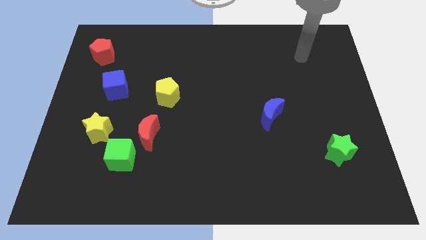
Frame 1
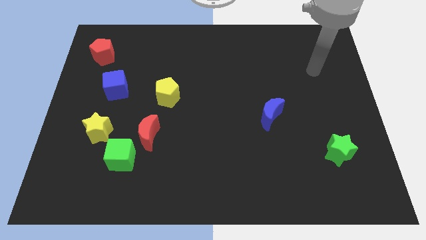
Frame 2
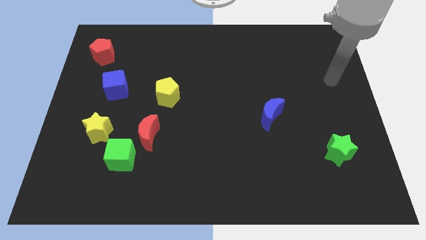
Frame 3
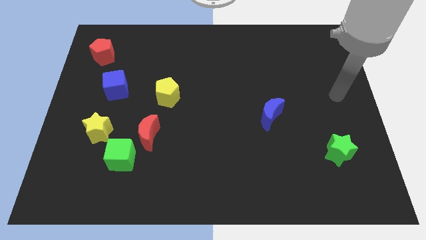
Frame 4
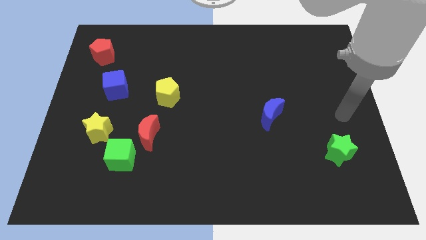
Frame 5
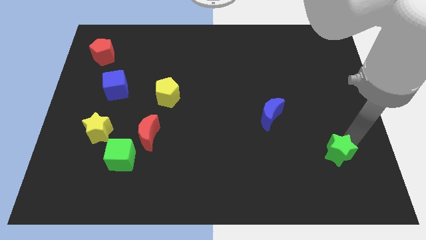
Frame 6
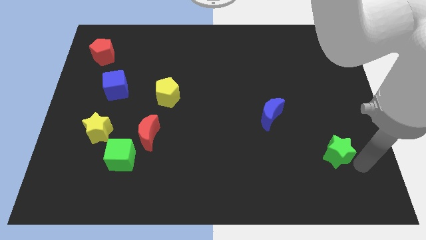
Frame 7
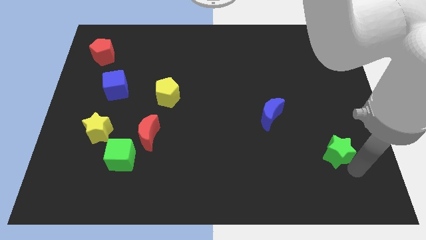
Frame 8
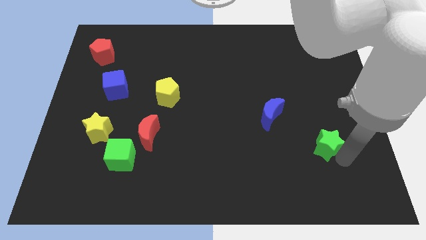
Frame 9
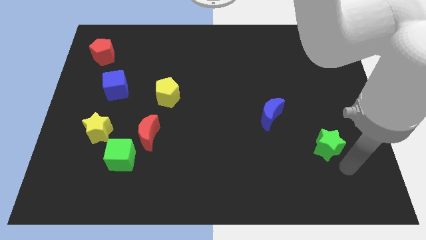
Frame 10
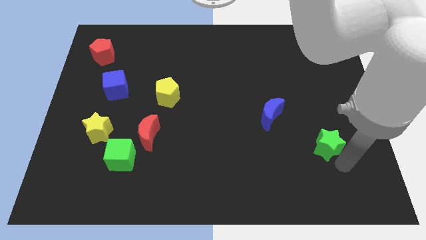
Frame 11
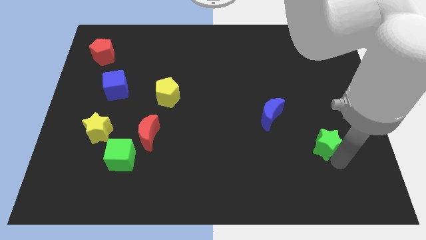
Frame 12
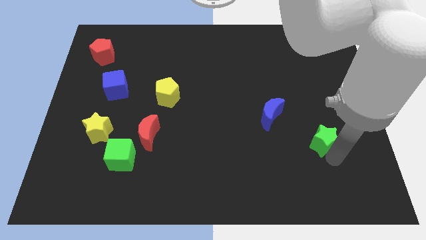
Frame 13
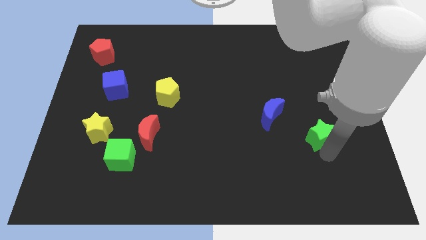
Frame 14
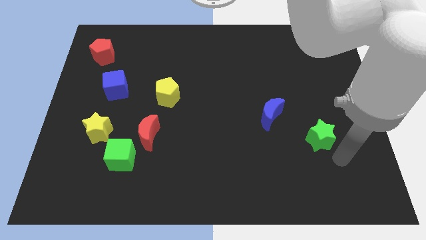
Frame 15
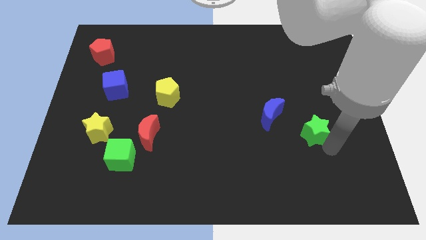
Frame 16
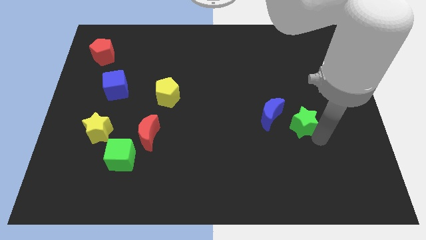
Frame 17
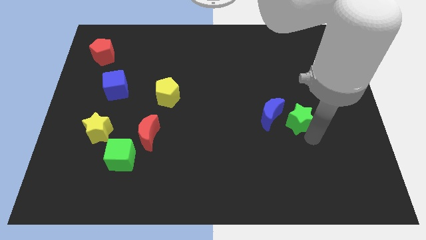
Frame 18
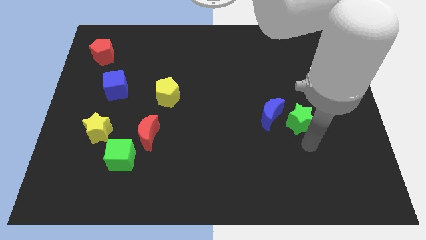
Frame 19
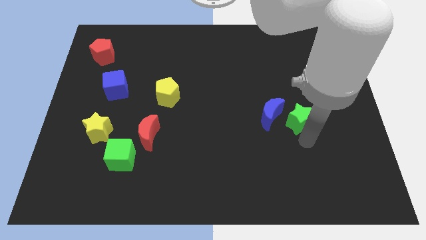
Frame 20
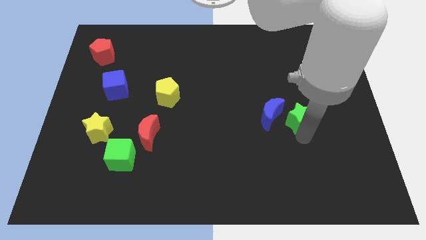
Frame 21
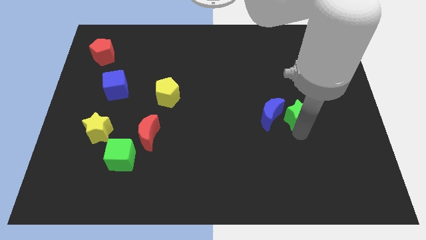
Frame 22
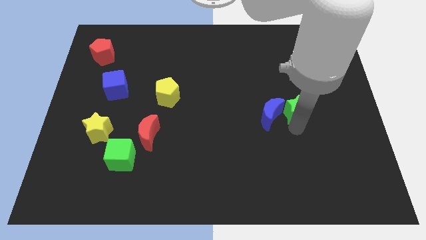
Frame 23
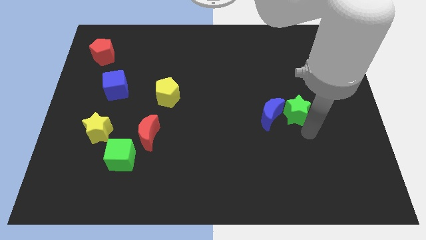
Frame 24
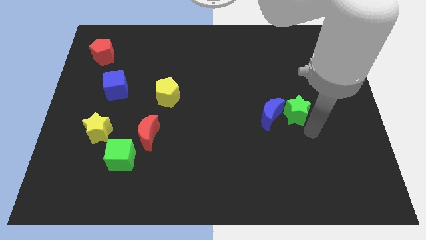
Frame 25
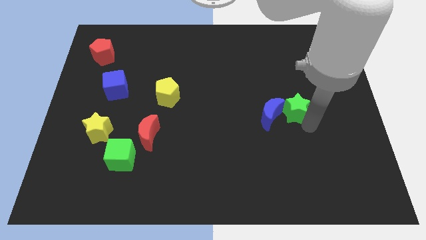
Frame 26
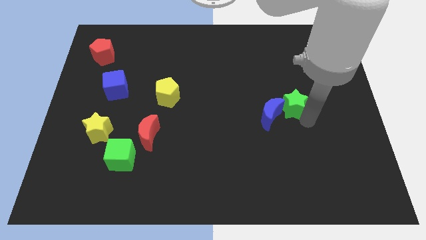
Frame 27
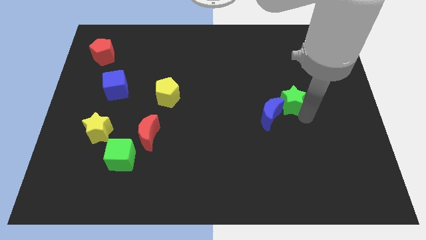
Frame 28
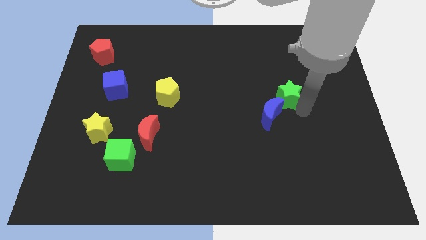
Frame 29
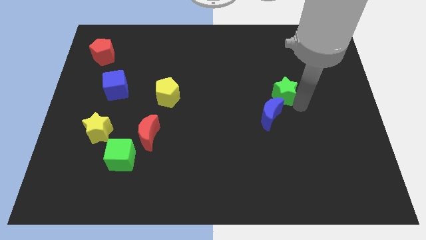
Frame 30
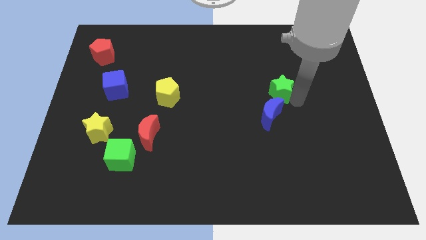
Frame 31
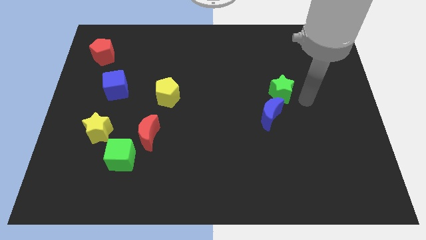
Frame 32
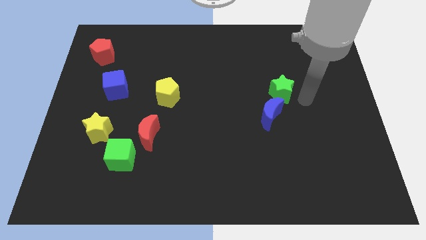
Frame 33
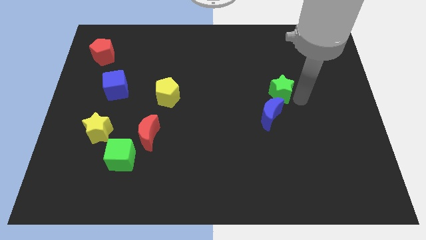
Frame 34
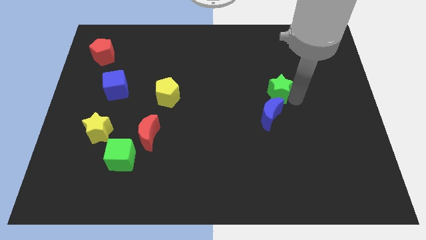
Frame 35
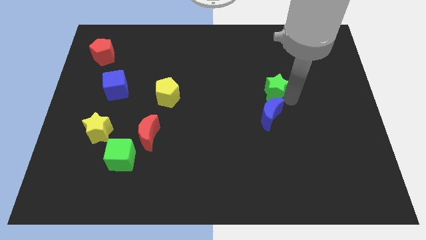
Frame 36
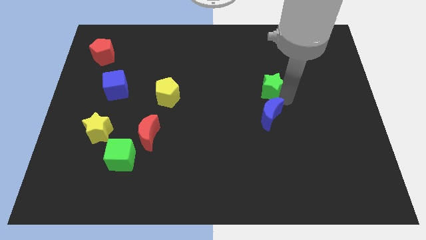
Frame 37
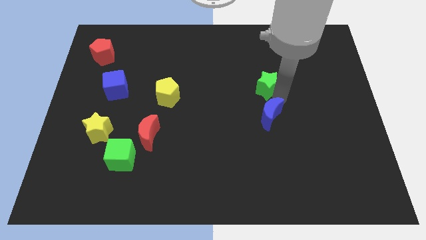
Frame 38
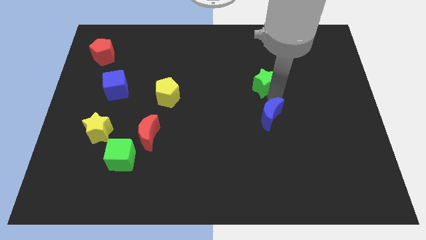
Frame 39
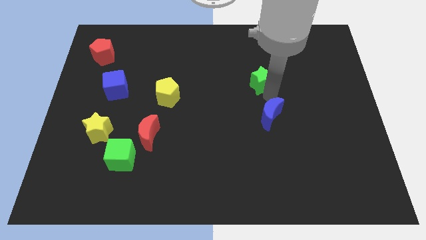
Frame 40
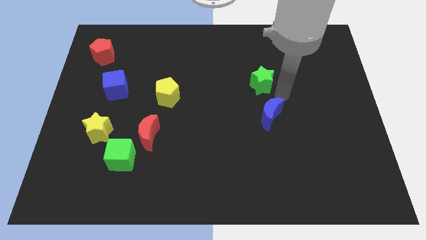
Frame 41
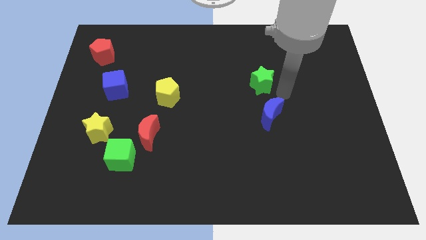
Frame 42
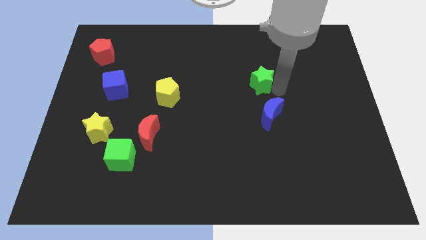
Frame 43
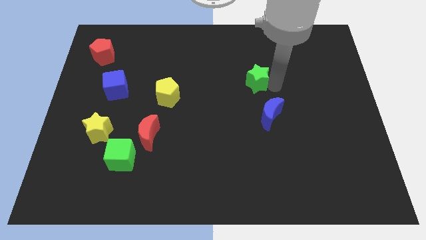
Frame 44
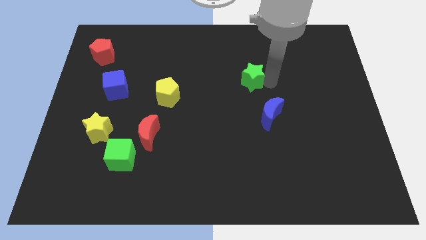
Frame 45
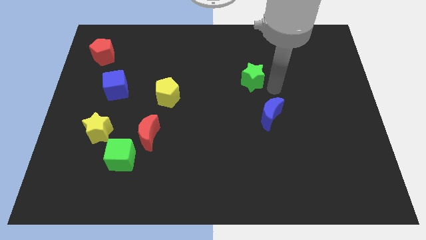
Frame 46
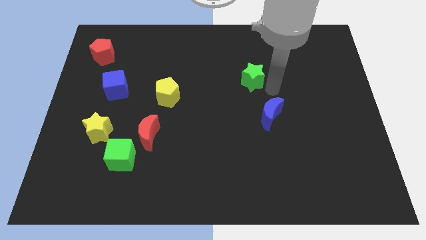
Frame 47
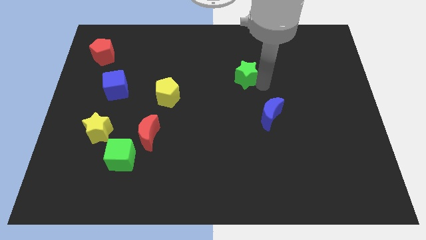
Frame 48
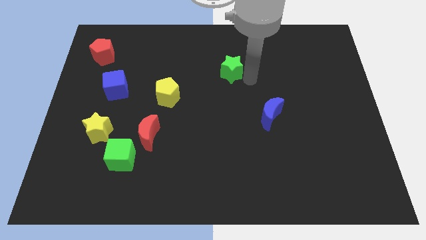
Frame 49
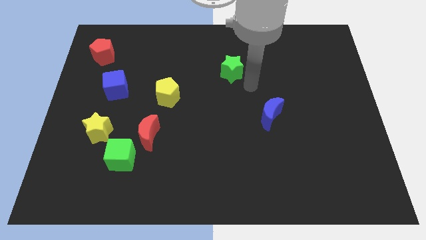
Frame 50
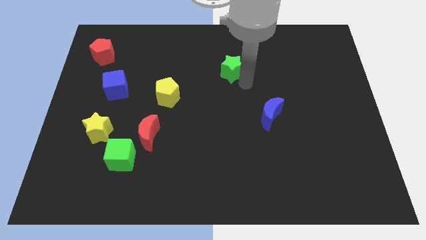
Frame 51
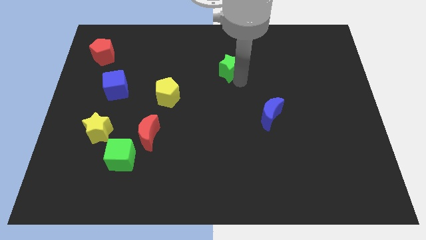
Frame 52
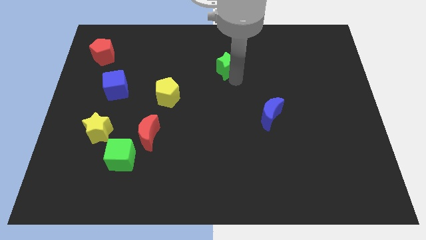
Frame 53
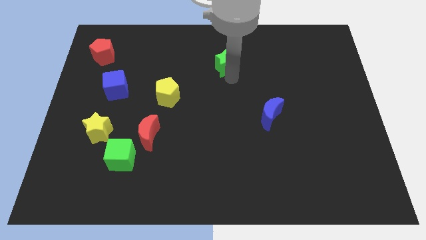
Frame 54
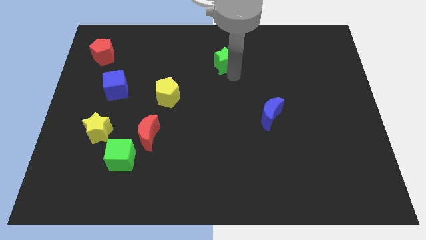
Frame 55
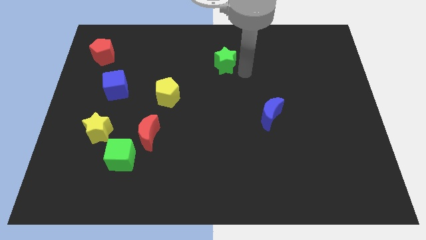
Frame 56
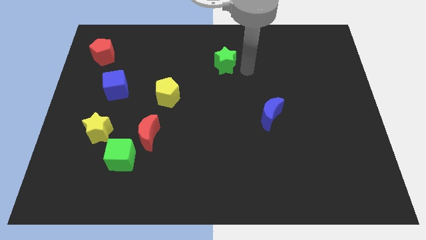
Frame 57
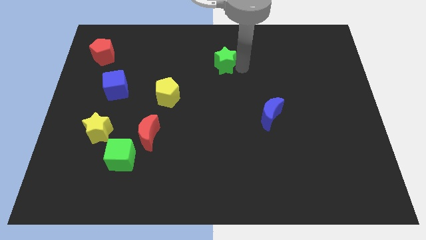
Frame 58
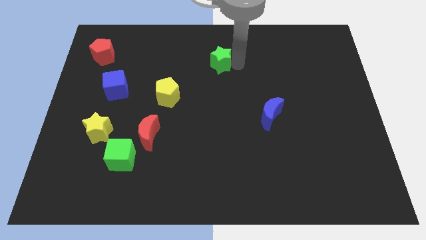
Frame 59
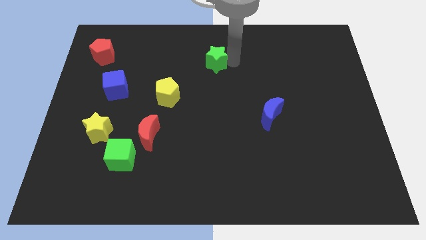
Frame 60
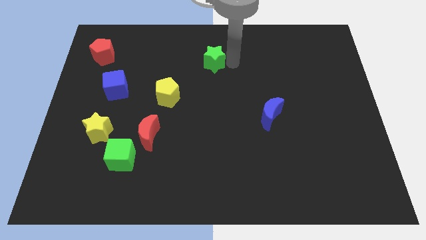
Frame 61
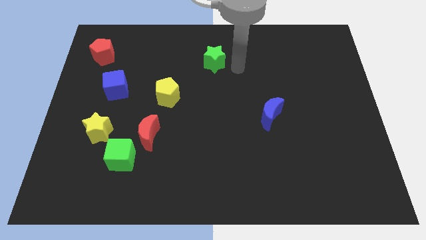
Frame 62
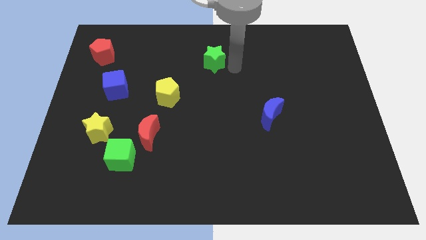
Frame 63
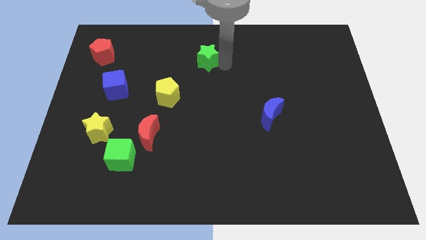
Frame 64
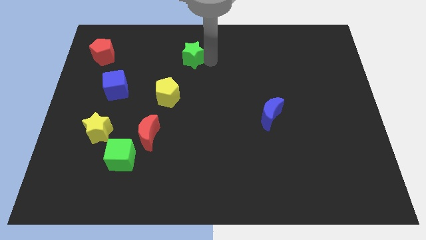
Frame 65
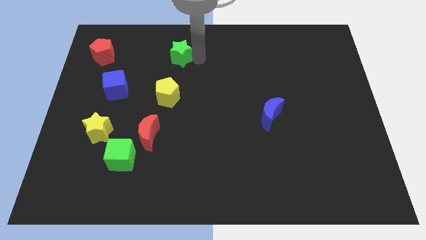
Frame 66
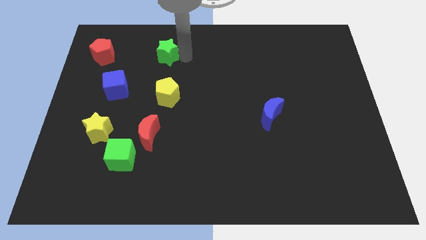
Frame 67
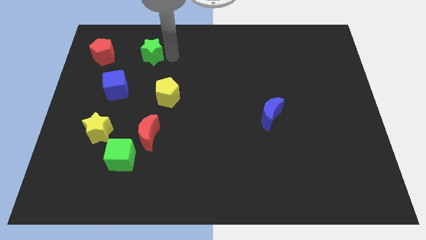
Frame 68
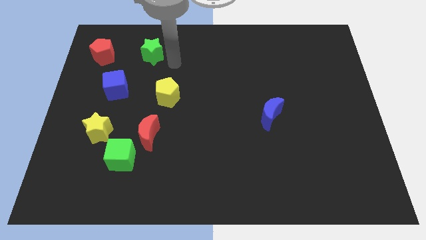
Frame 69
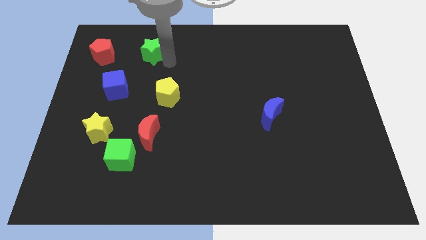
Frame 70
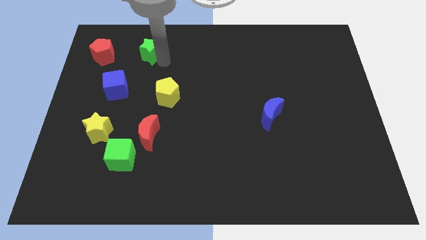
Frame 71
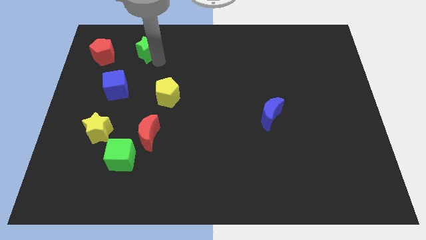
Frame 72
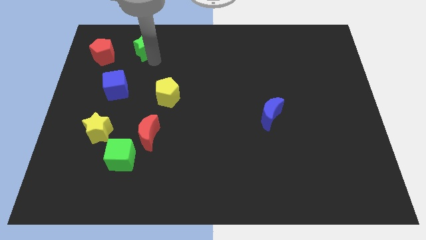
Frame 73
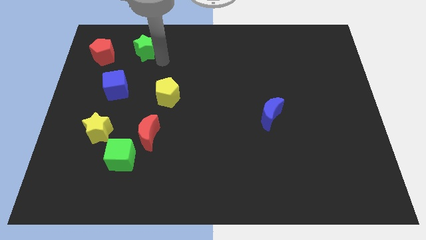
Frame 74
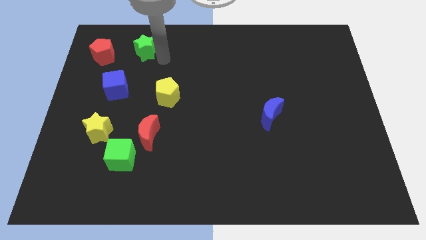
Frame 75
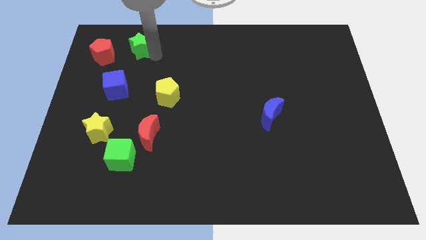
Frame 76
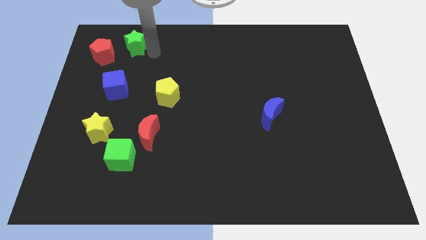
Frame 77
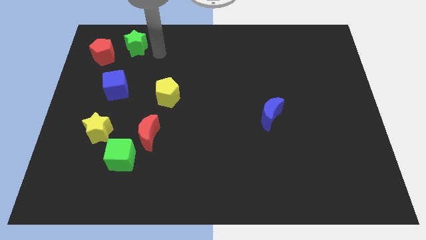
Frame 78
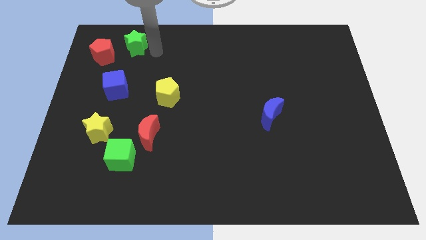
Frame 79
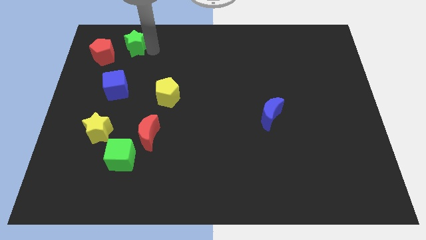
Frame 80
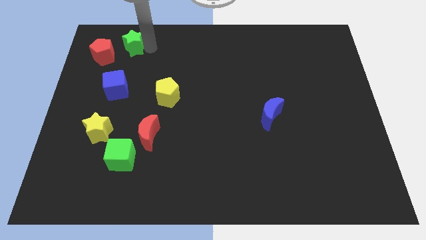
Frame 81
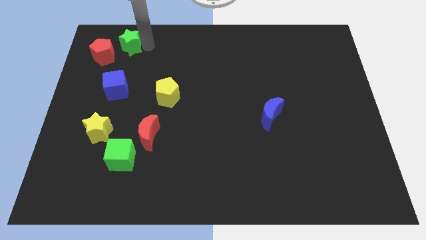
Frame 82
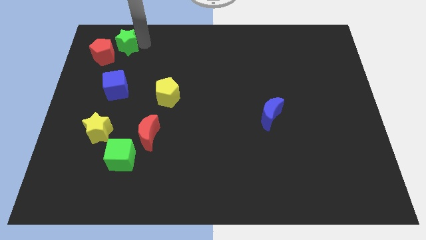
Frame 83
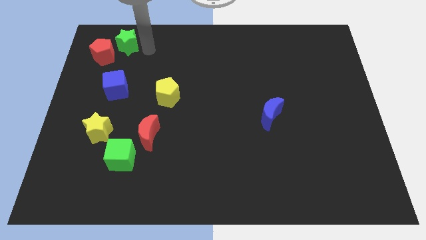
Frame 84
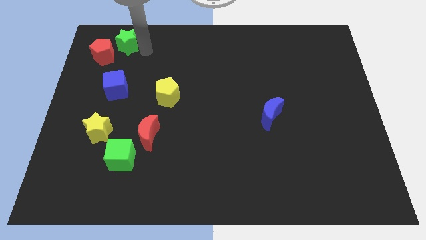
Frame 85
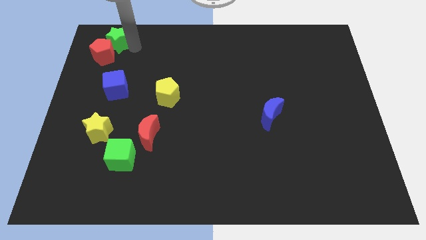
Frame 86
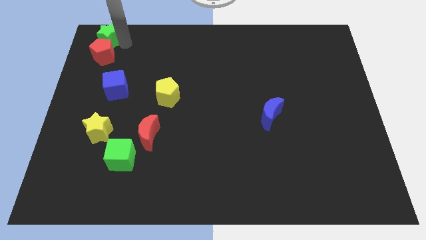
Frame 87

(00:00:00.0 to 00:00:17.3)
slide the green star to the top left of the board
